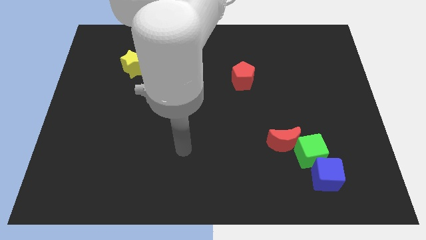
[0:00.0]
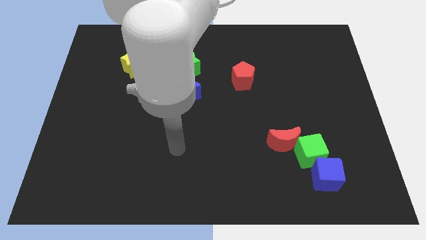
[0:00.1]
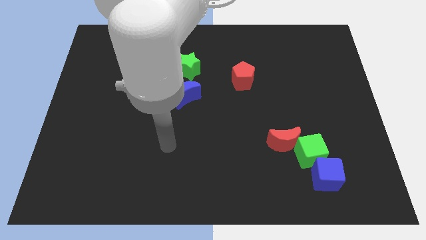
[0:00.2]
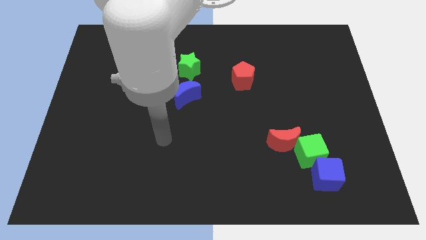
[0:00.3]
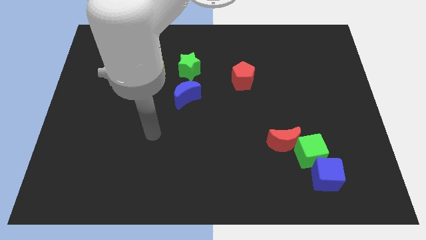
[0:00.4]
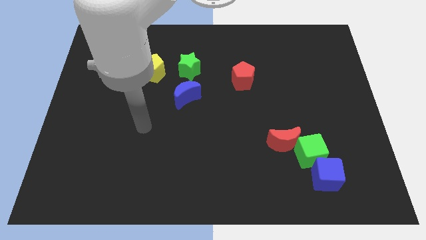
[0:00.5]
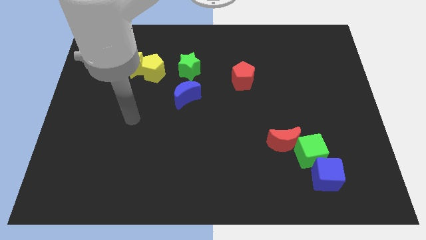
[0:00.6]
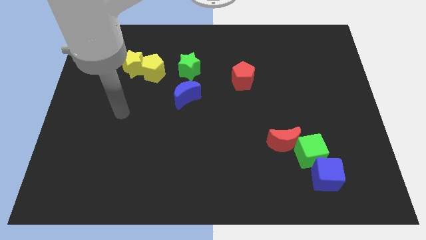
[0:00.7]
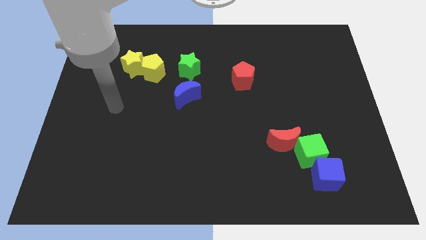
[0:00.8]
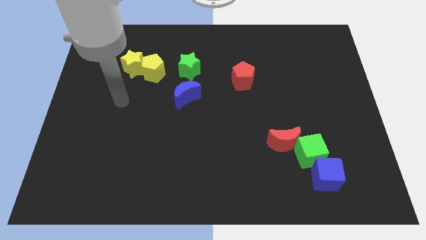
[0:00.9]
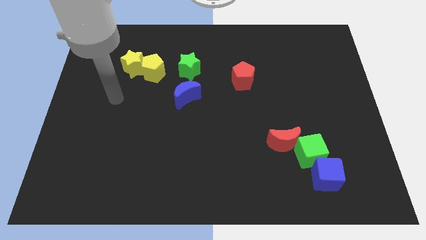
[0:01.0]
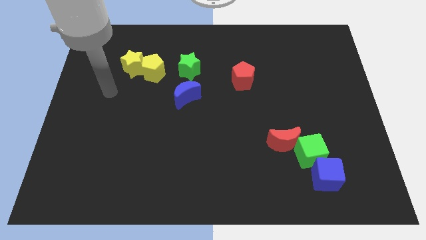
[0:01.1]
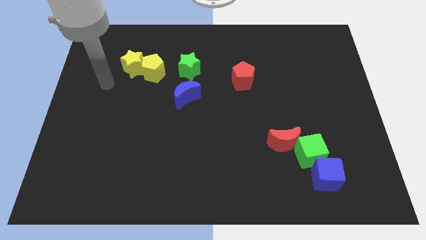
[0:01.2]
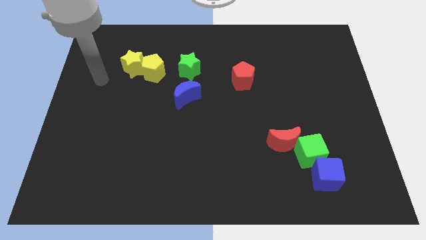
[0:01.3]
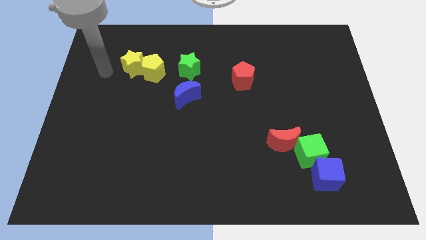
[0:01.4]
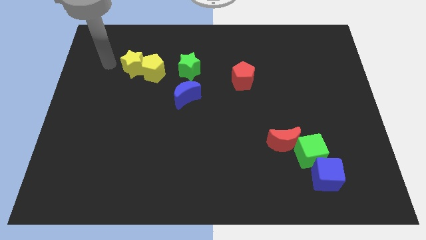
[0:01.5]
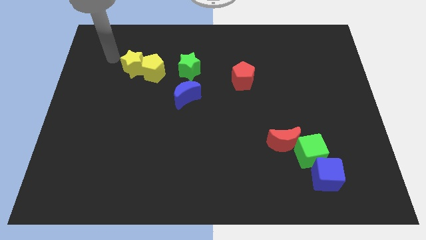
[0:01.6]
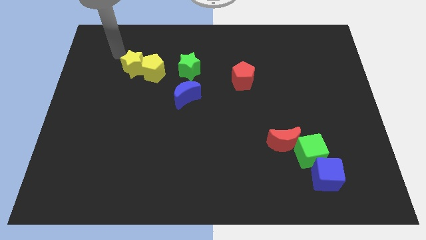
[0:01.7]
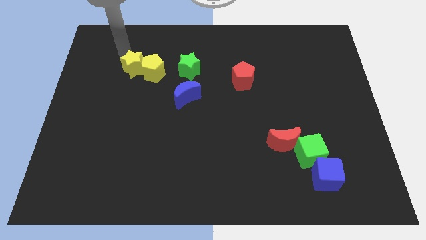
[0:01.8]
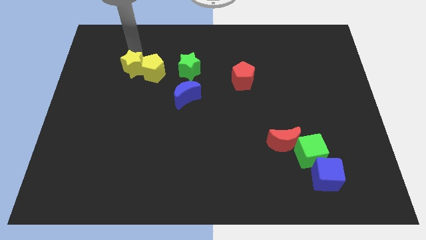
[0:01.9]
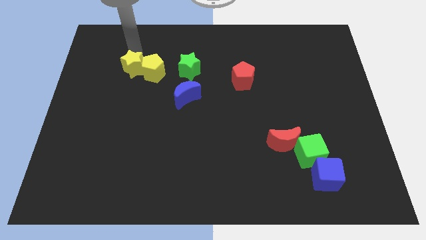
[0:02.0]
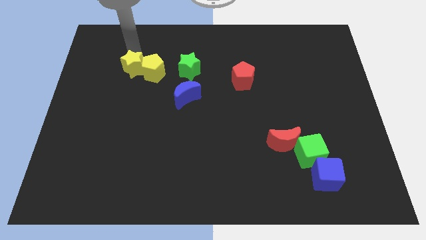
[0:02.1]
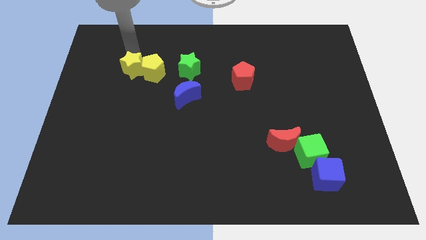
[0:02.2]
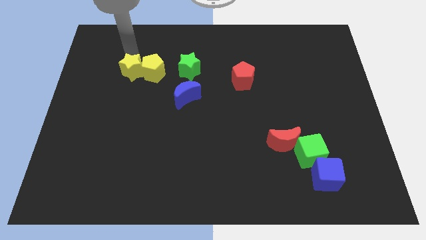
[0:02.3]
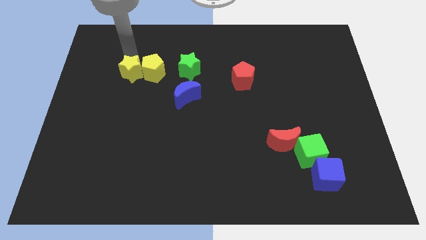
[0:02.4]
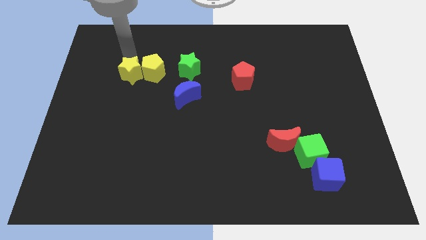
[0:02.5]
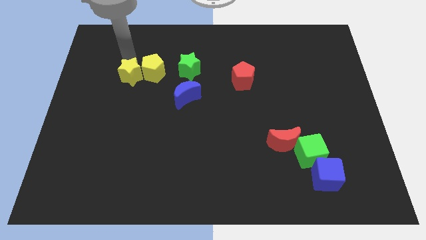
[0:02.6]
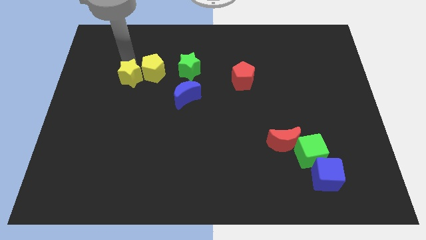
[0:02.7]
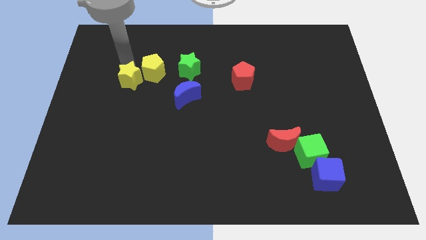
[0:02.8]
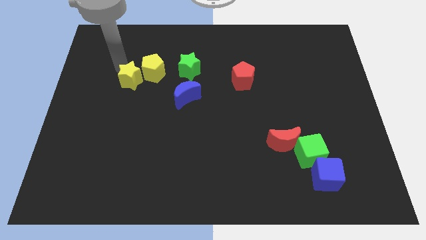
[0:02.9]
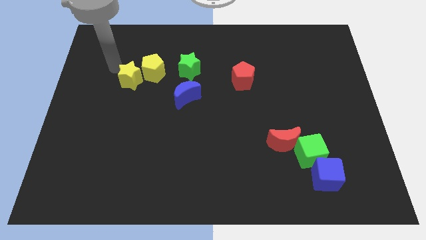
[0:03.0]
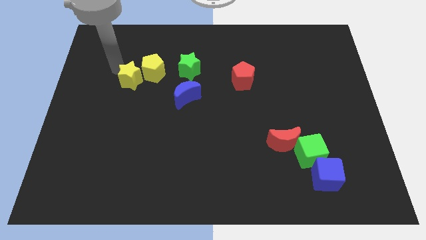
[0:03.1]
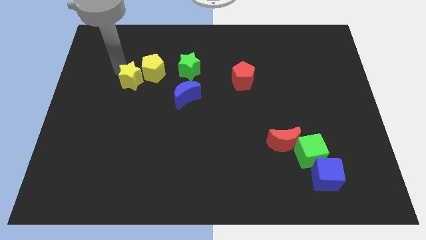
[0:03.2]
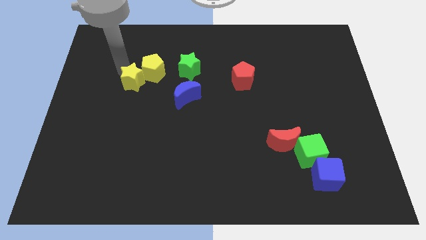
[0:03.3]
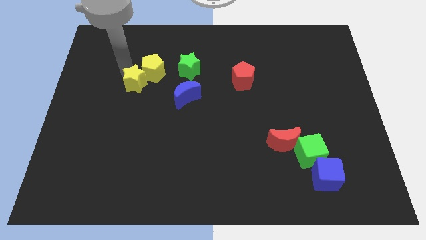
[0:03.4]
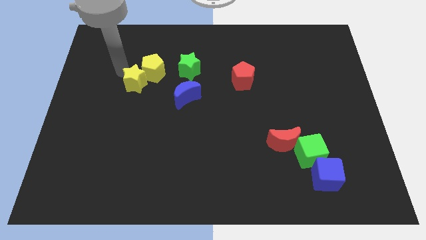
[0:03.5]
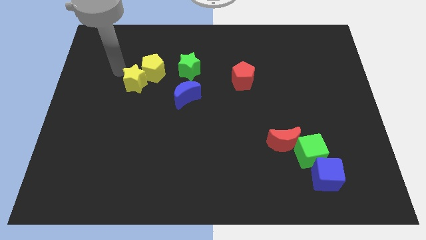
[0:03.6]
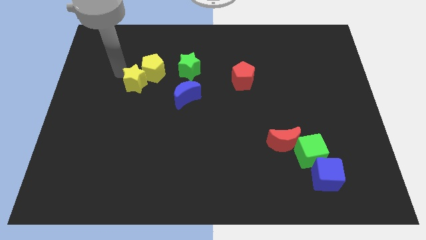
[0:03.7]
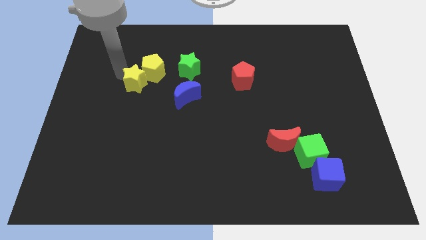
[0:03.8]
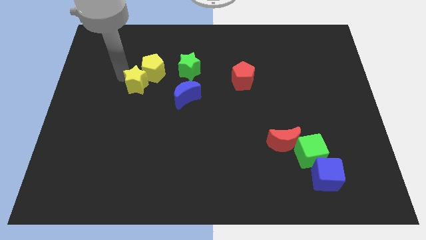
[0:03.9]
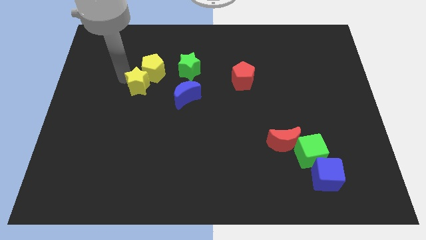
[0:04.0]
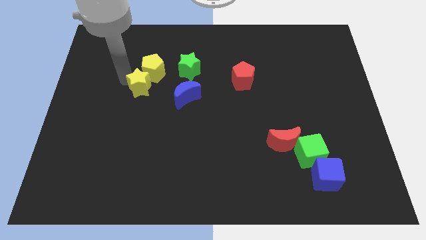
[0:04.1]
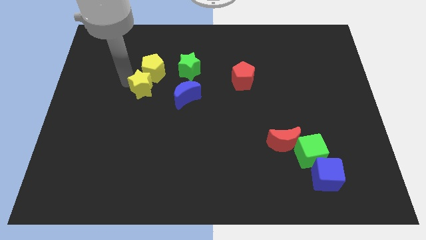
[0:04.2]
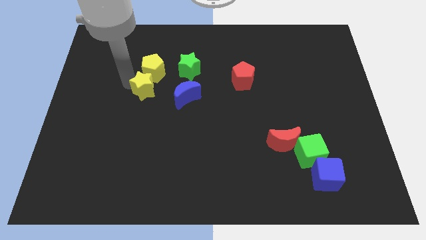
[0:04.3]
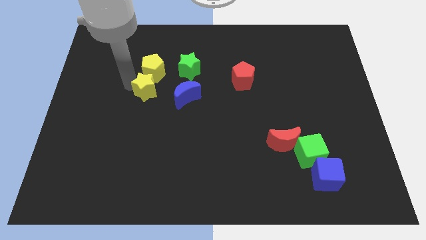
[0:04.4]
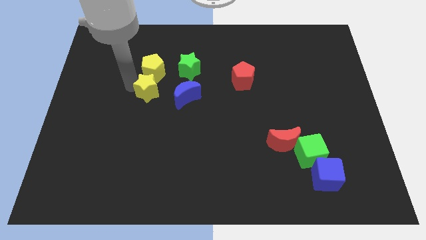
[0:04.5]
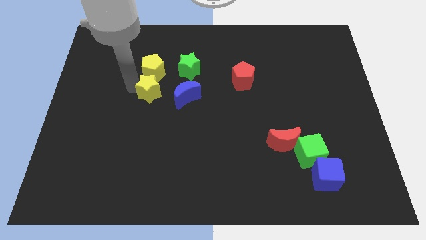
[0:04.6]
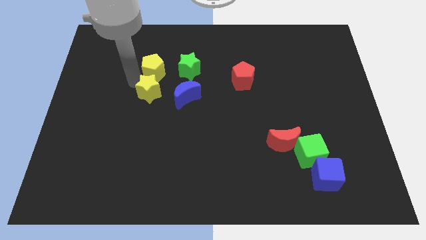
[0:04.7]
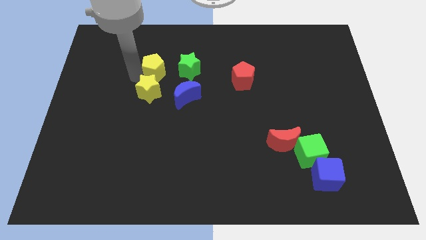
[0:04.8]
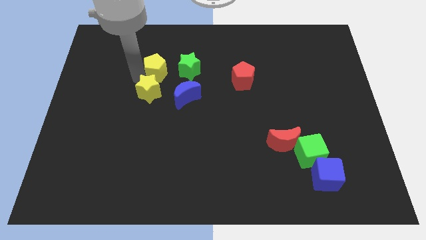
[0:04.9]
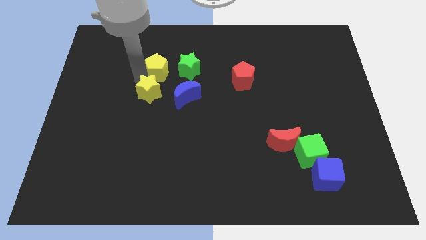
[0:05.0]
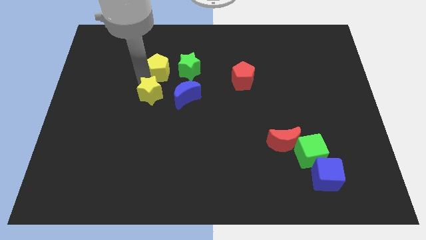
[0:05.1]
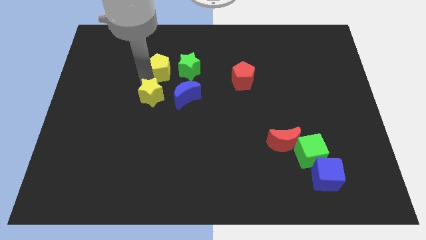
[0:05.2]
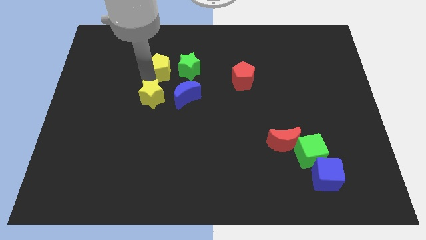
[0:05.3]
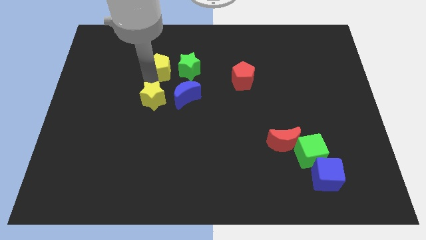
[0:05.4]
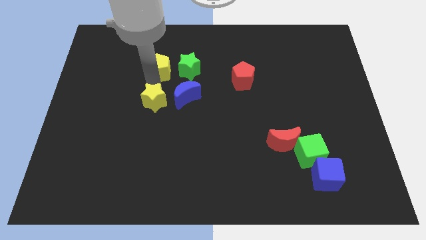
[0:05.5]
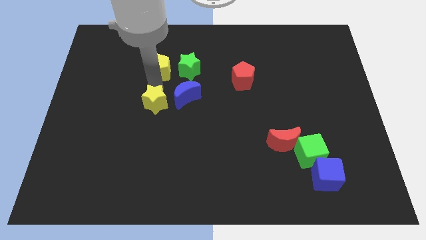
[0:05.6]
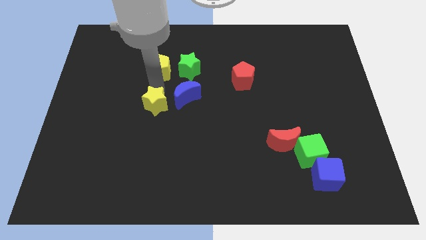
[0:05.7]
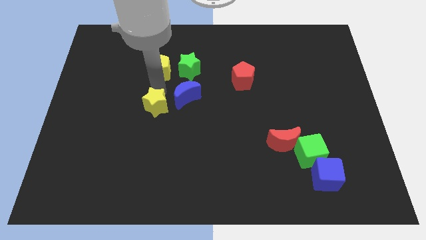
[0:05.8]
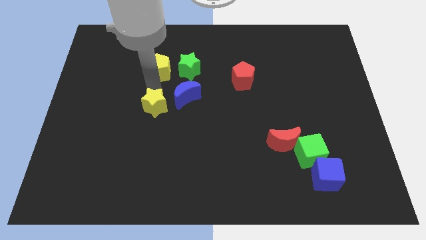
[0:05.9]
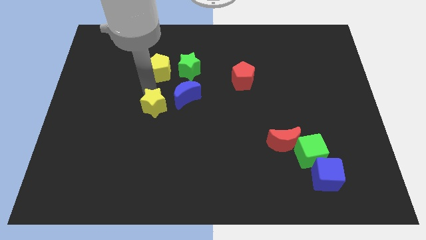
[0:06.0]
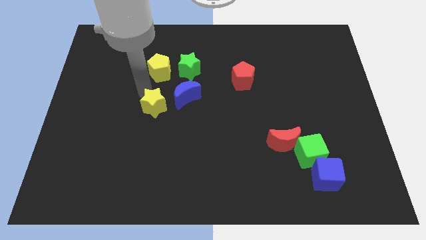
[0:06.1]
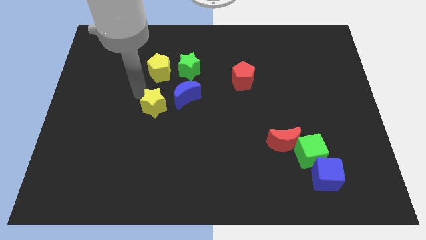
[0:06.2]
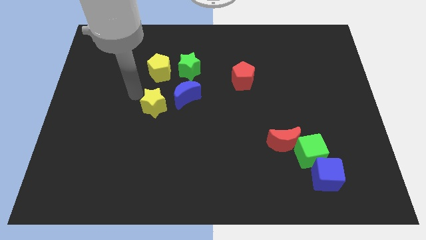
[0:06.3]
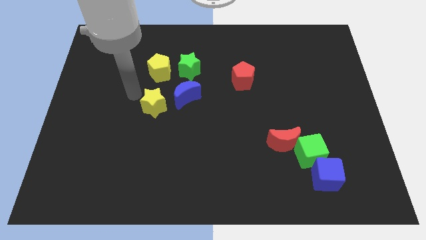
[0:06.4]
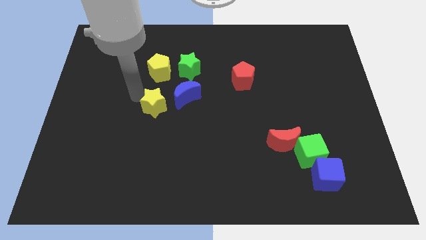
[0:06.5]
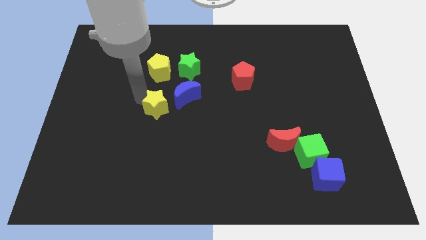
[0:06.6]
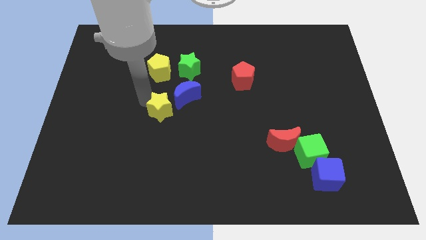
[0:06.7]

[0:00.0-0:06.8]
push the yellow star to the center of the board
